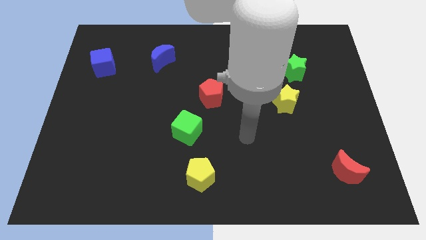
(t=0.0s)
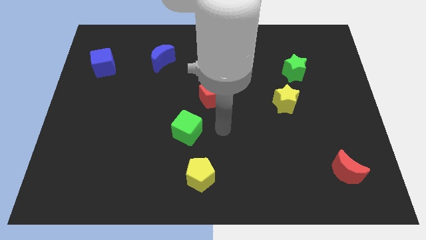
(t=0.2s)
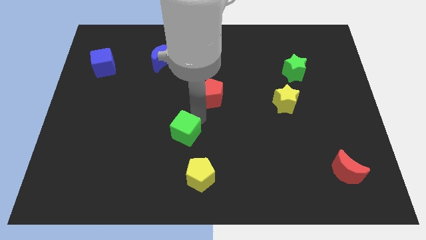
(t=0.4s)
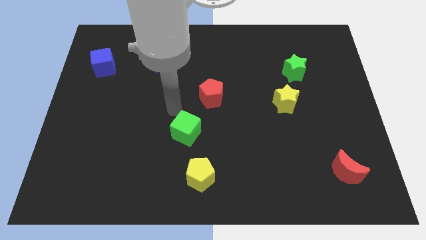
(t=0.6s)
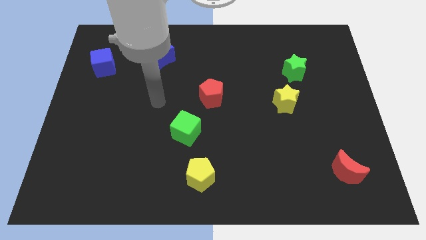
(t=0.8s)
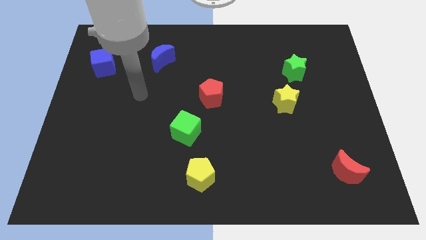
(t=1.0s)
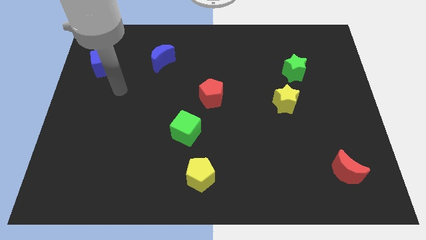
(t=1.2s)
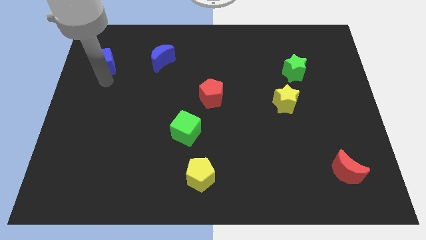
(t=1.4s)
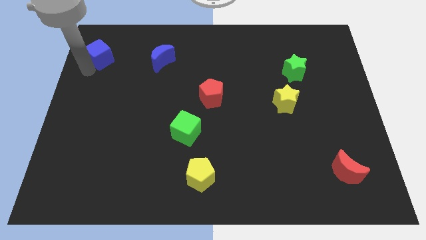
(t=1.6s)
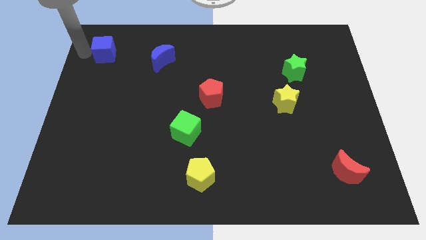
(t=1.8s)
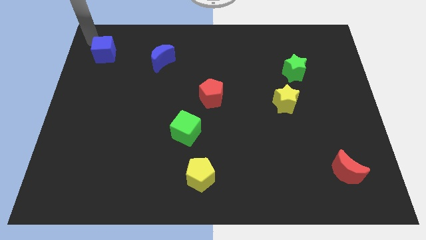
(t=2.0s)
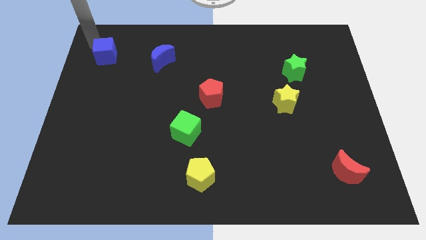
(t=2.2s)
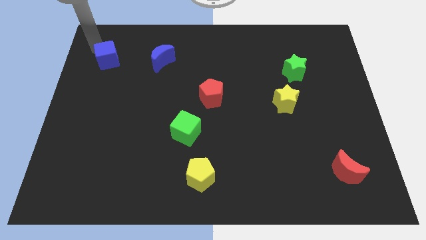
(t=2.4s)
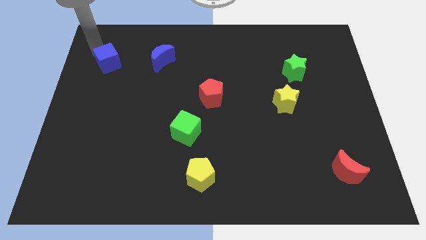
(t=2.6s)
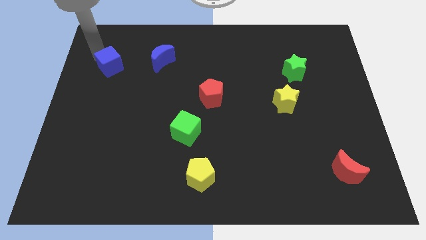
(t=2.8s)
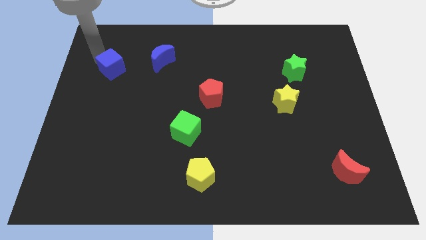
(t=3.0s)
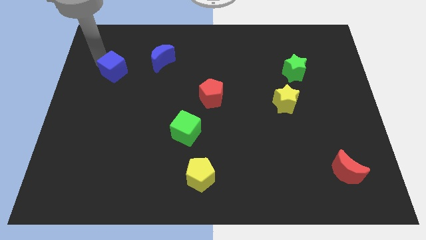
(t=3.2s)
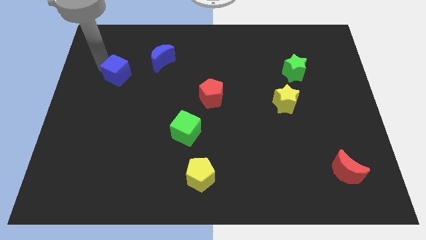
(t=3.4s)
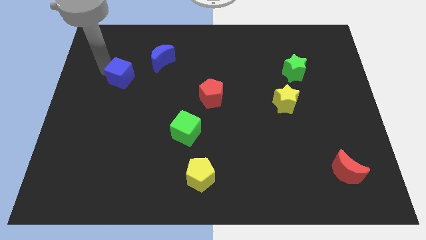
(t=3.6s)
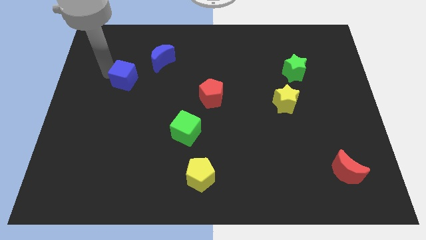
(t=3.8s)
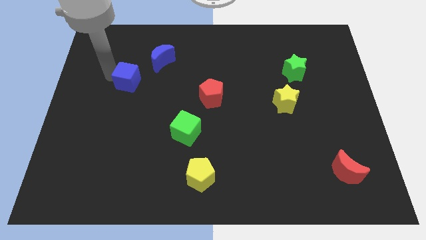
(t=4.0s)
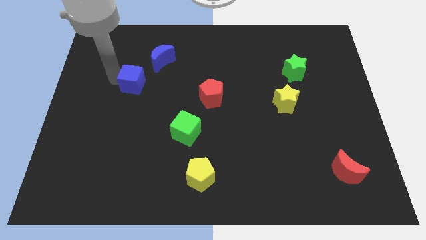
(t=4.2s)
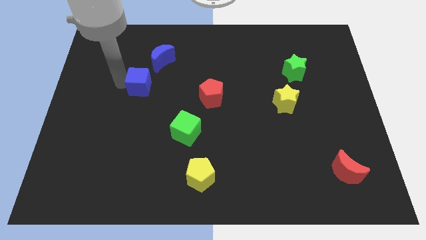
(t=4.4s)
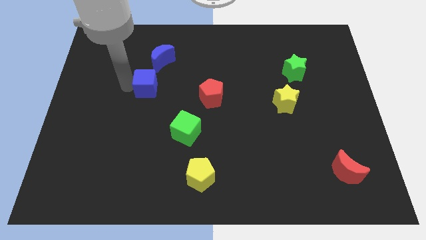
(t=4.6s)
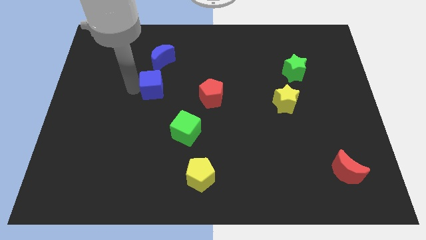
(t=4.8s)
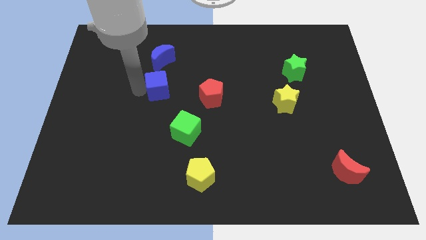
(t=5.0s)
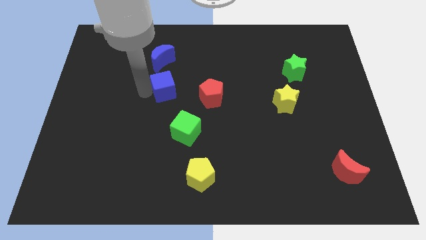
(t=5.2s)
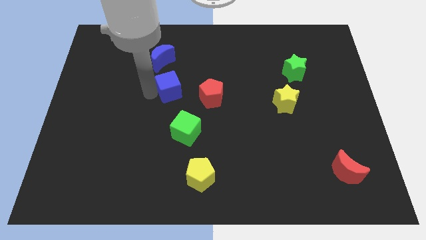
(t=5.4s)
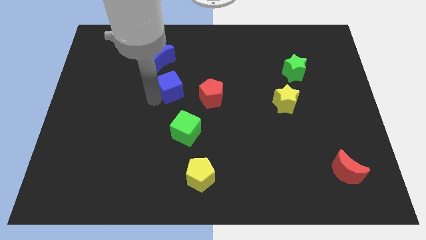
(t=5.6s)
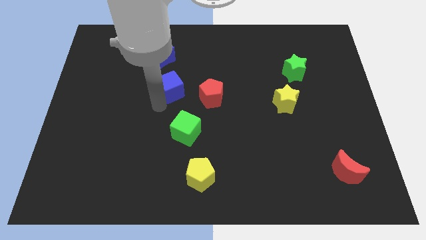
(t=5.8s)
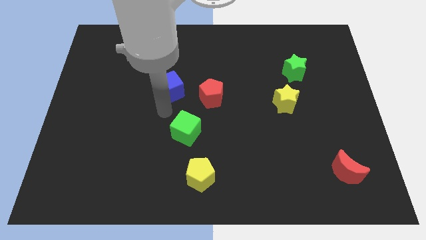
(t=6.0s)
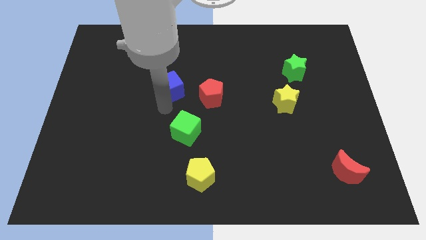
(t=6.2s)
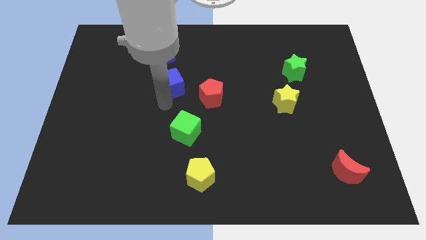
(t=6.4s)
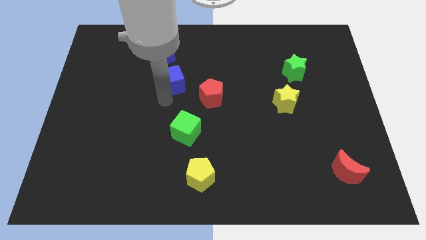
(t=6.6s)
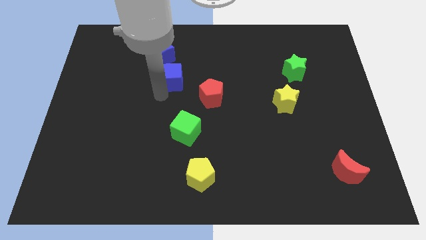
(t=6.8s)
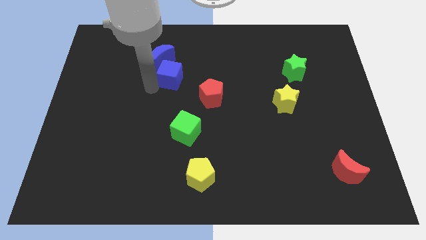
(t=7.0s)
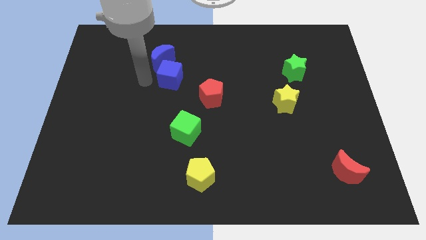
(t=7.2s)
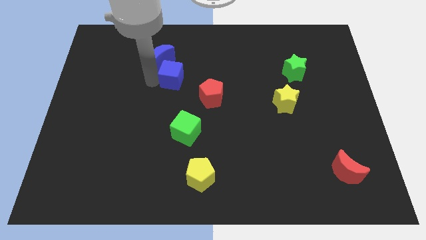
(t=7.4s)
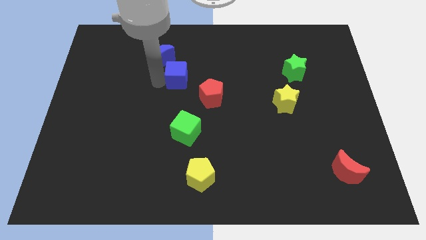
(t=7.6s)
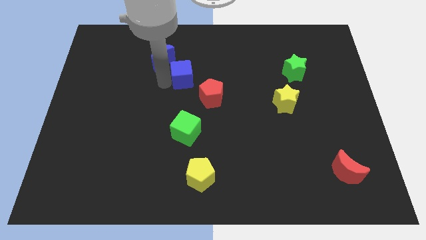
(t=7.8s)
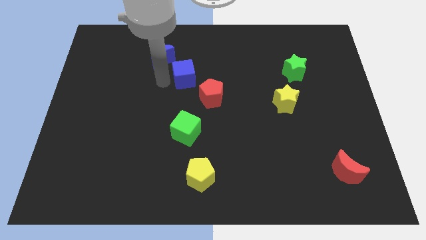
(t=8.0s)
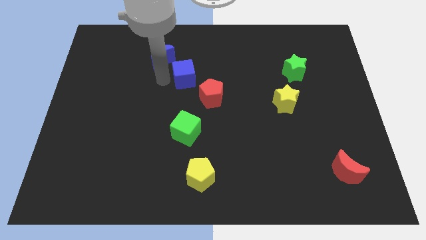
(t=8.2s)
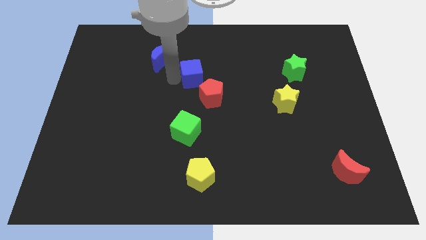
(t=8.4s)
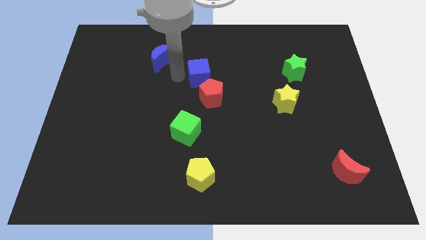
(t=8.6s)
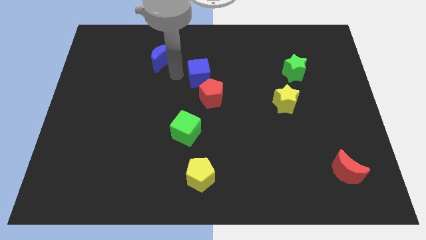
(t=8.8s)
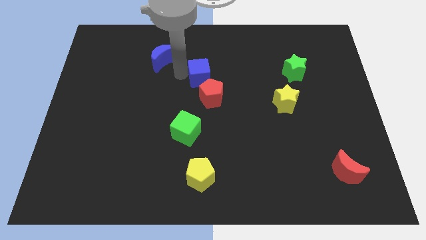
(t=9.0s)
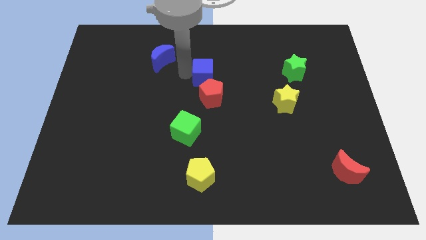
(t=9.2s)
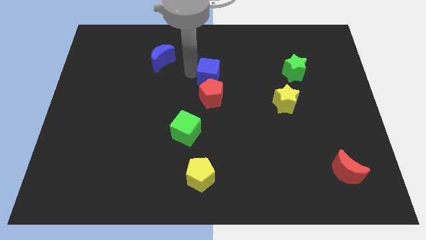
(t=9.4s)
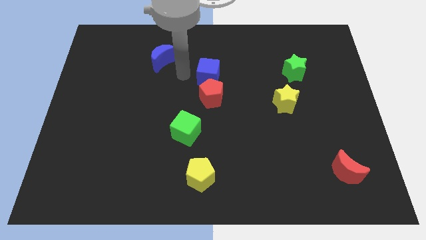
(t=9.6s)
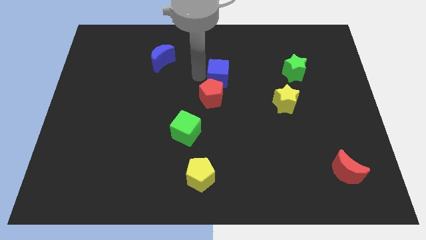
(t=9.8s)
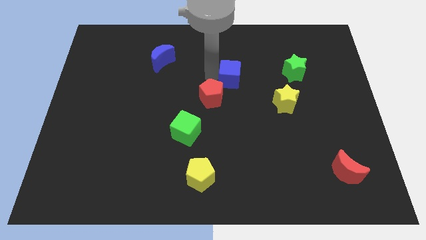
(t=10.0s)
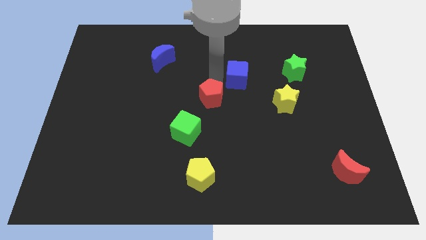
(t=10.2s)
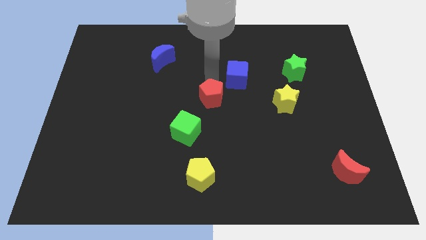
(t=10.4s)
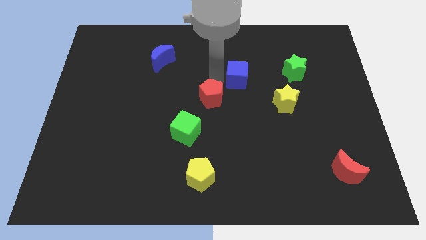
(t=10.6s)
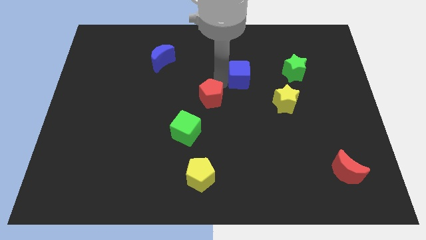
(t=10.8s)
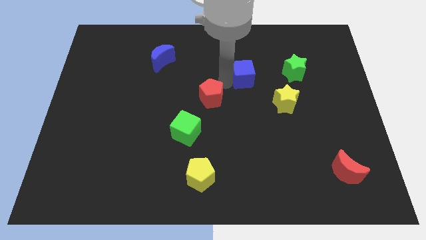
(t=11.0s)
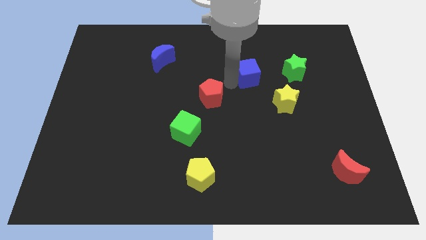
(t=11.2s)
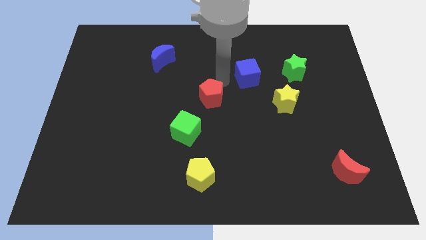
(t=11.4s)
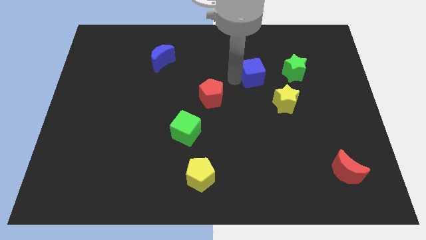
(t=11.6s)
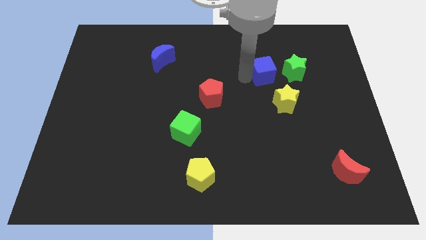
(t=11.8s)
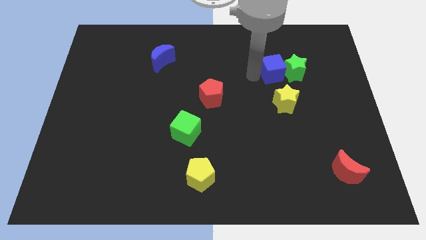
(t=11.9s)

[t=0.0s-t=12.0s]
move the blue cube to the green star

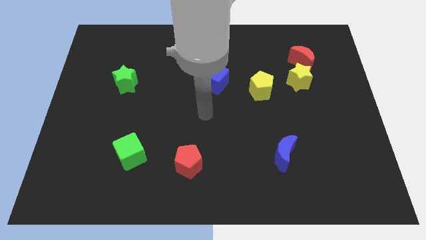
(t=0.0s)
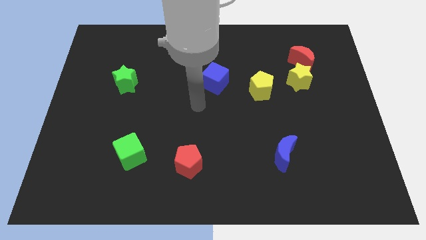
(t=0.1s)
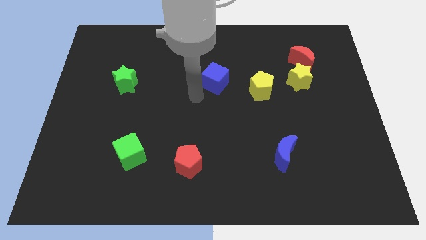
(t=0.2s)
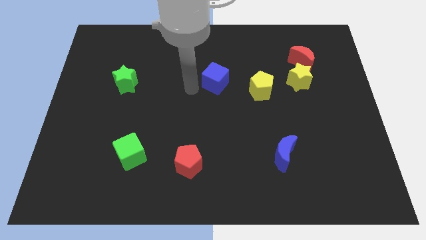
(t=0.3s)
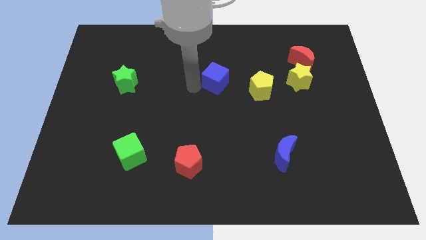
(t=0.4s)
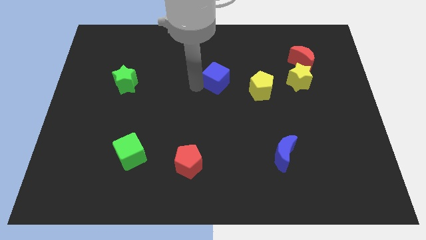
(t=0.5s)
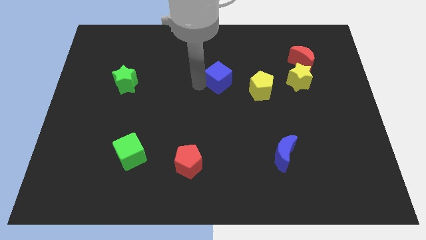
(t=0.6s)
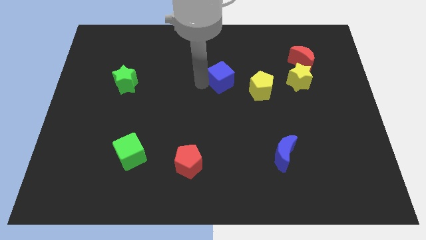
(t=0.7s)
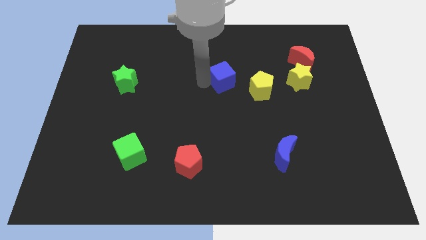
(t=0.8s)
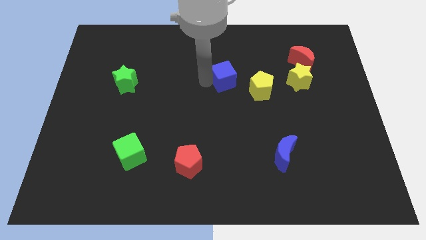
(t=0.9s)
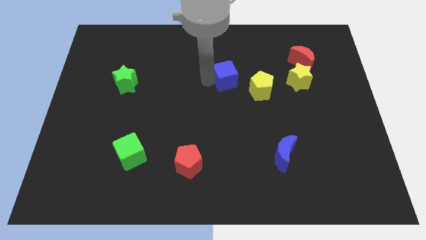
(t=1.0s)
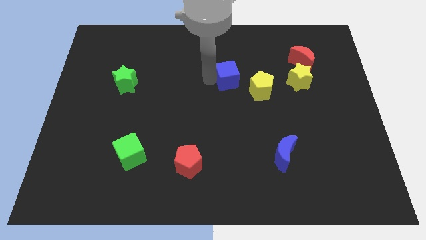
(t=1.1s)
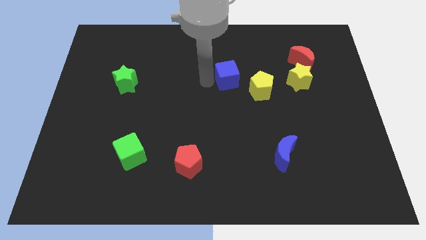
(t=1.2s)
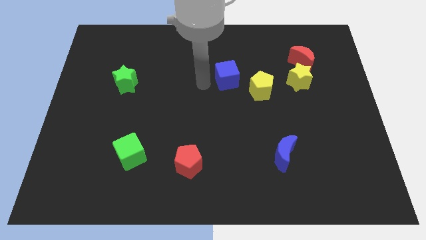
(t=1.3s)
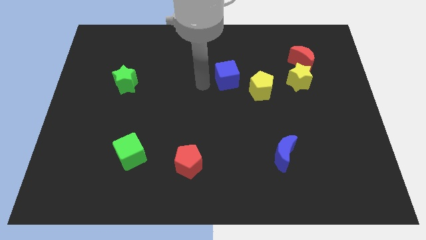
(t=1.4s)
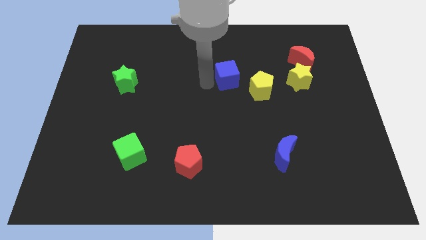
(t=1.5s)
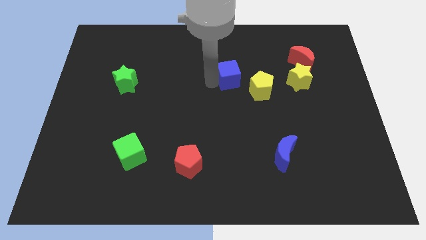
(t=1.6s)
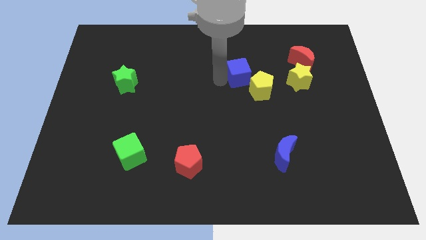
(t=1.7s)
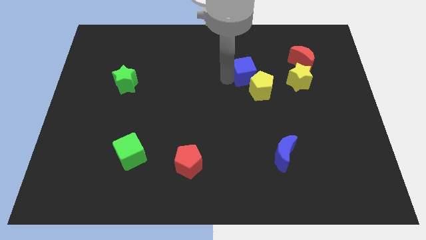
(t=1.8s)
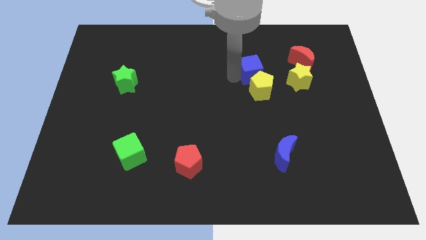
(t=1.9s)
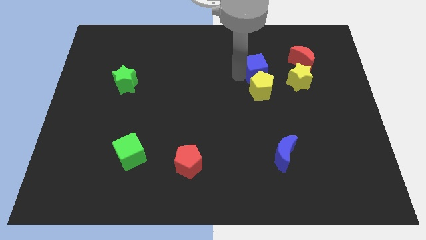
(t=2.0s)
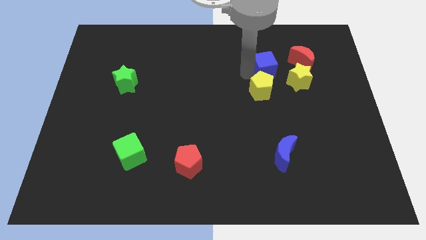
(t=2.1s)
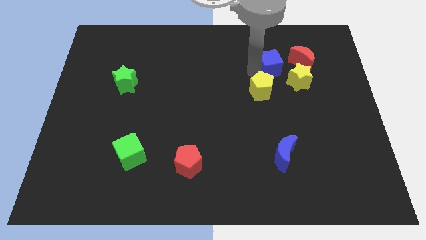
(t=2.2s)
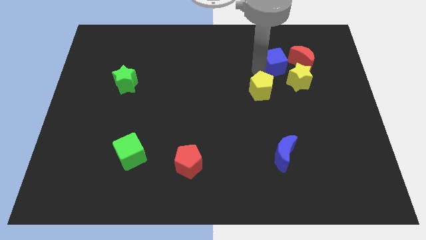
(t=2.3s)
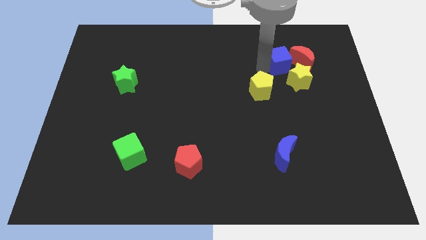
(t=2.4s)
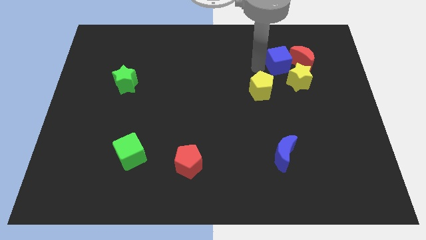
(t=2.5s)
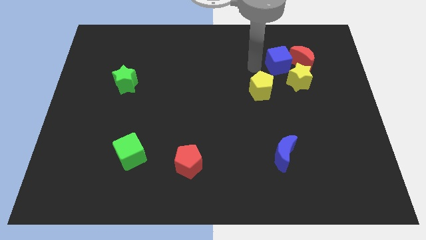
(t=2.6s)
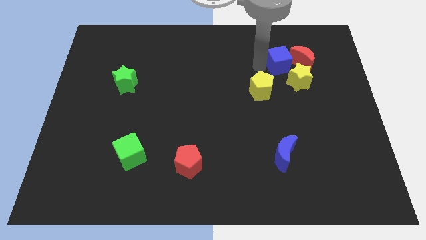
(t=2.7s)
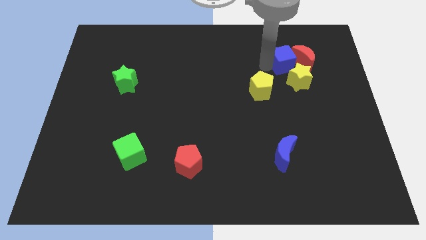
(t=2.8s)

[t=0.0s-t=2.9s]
push the blue cube next to the red moon
